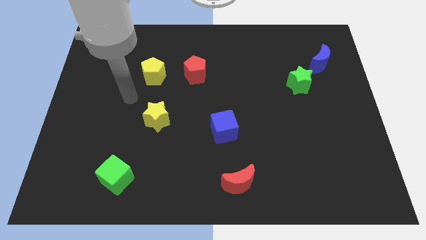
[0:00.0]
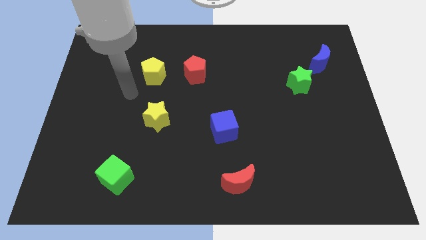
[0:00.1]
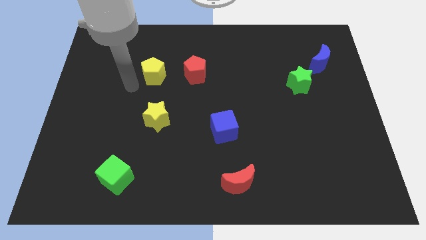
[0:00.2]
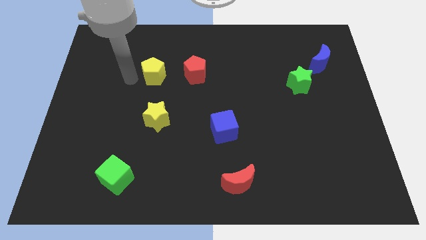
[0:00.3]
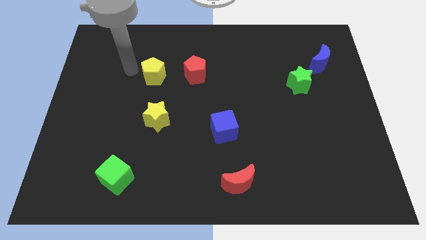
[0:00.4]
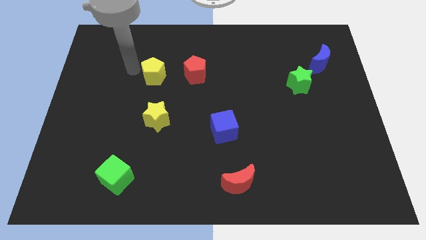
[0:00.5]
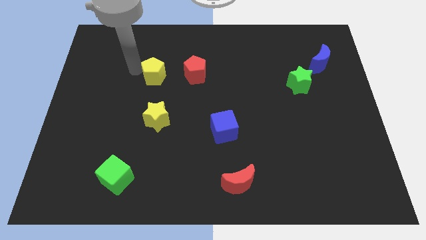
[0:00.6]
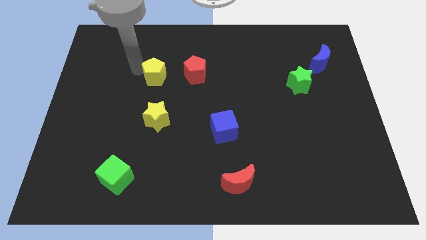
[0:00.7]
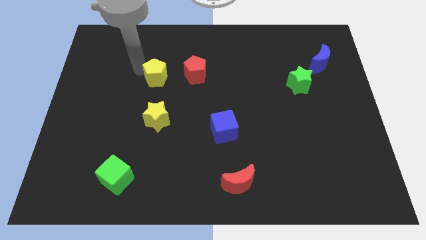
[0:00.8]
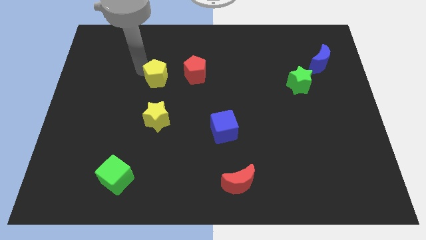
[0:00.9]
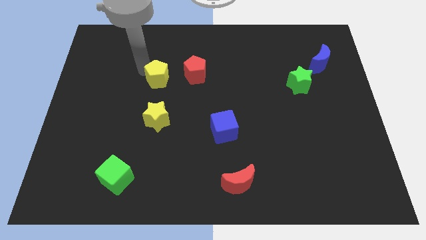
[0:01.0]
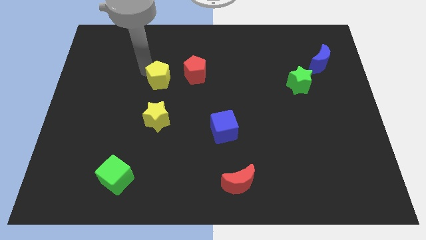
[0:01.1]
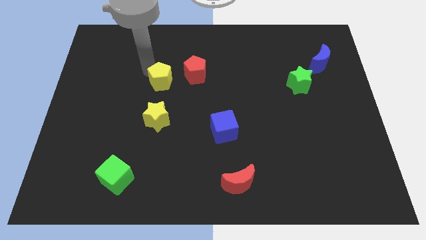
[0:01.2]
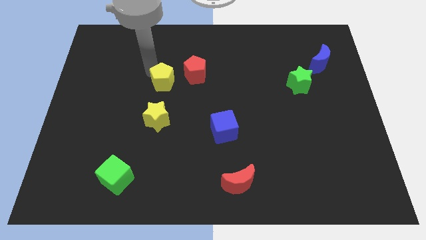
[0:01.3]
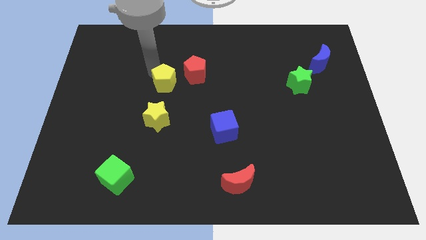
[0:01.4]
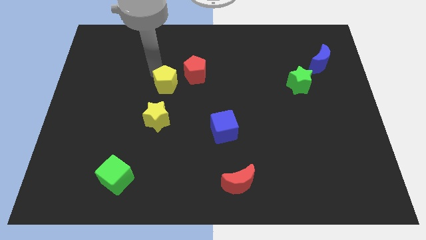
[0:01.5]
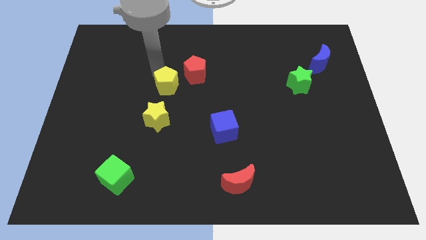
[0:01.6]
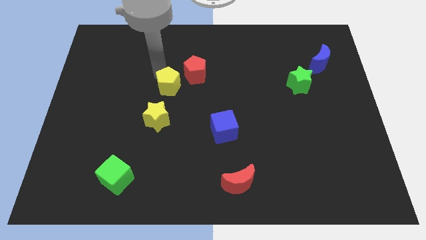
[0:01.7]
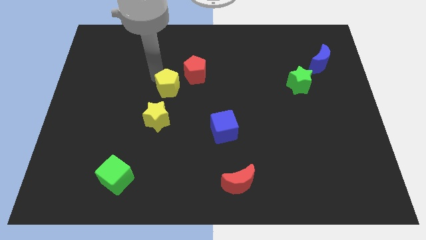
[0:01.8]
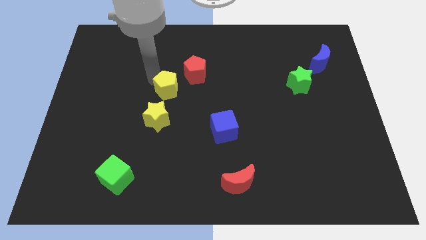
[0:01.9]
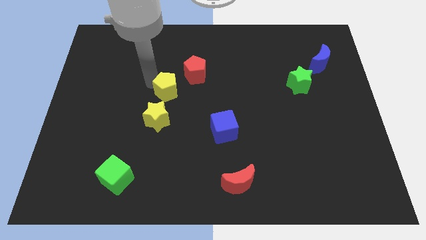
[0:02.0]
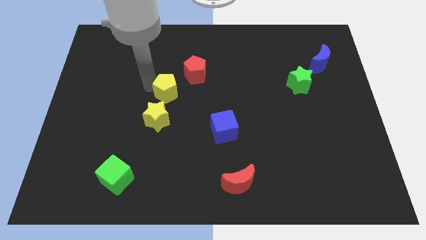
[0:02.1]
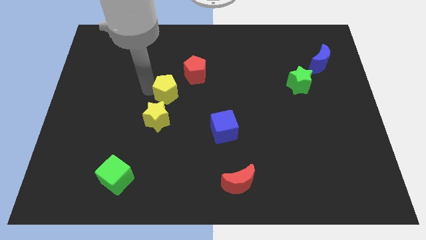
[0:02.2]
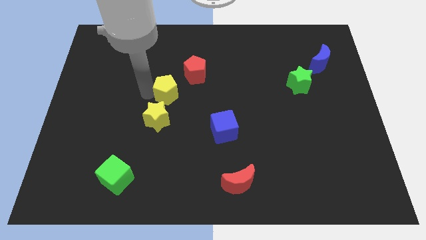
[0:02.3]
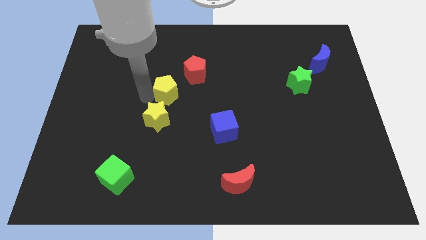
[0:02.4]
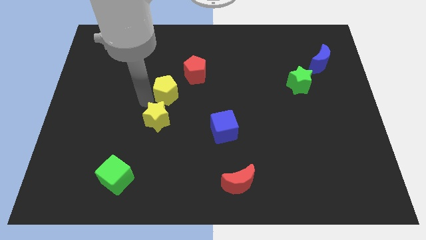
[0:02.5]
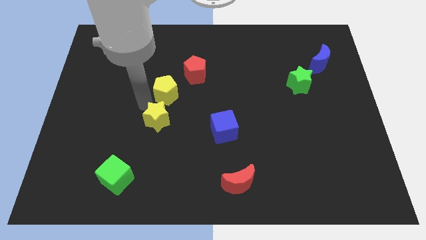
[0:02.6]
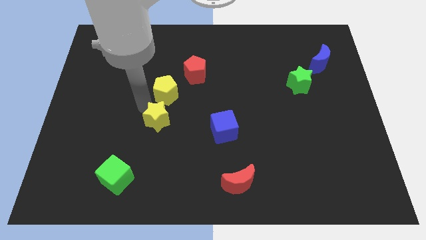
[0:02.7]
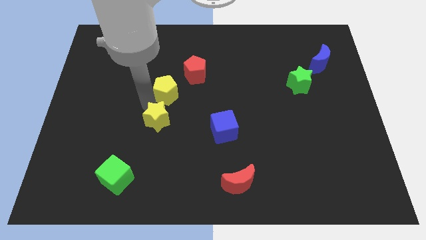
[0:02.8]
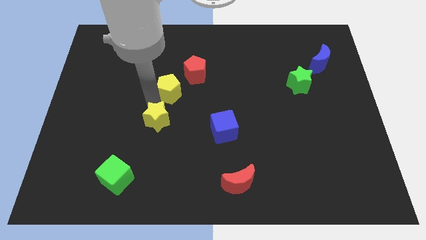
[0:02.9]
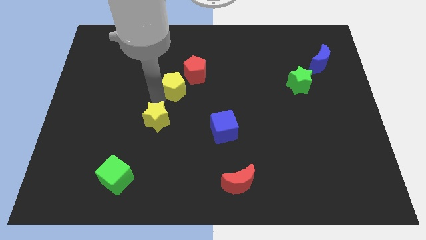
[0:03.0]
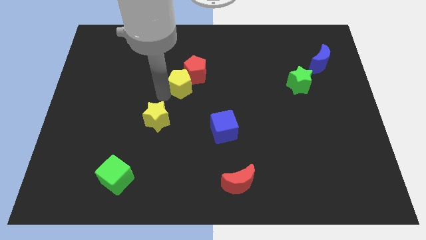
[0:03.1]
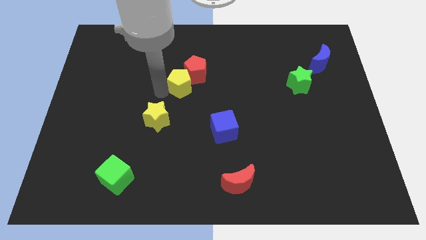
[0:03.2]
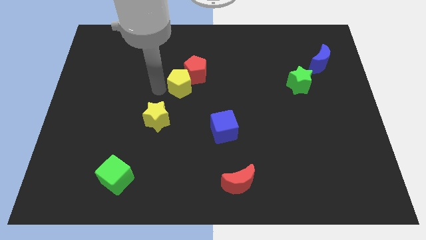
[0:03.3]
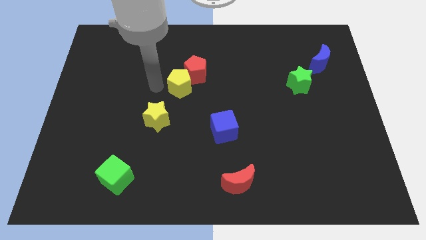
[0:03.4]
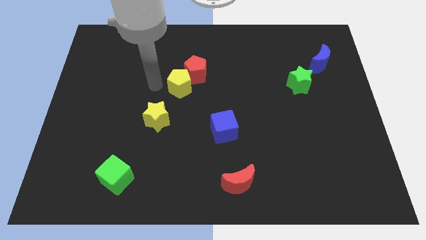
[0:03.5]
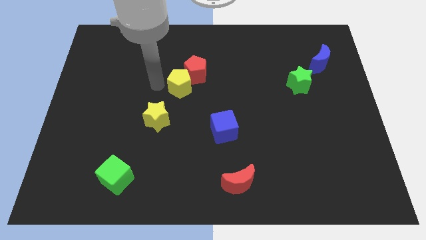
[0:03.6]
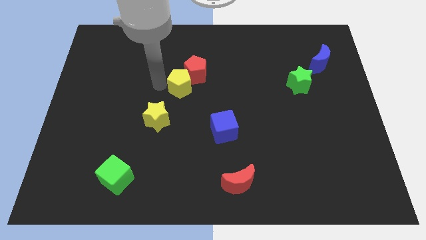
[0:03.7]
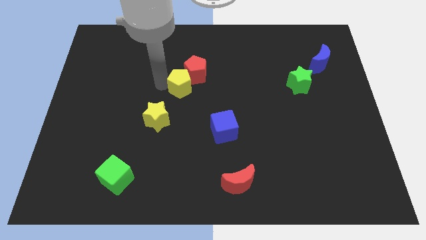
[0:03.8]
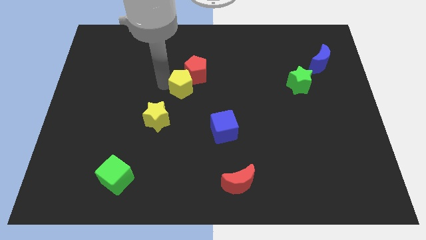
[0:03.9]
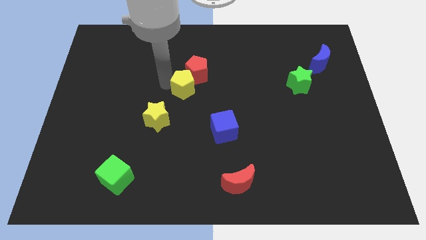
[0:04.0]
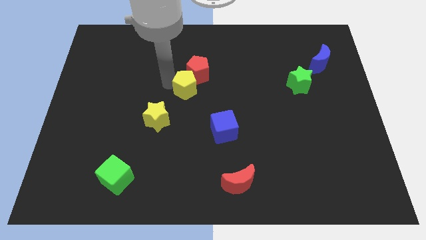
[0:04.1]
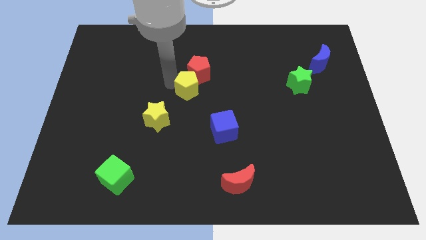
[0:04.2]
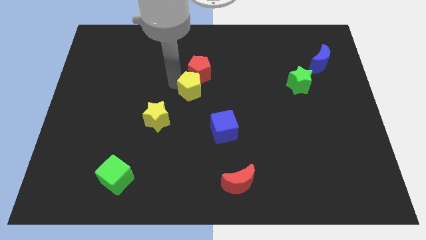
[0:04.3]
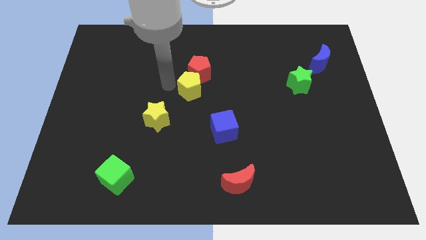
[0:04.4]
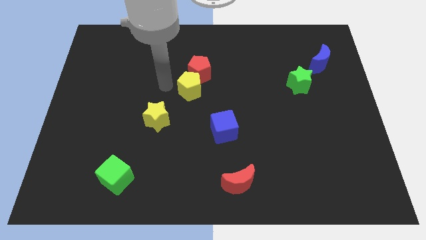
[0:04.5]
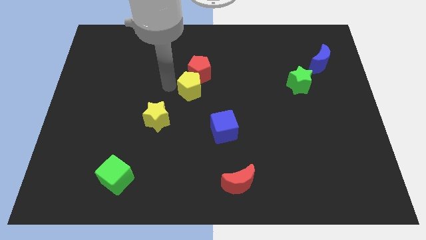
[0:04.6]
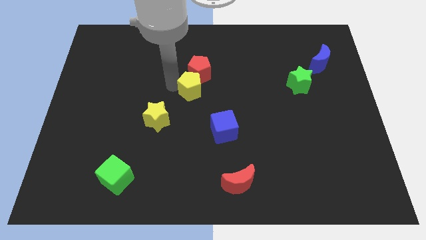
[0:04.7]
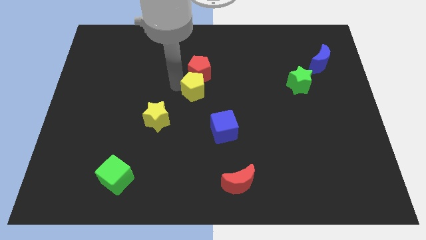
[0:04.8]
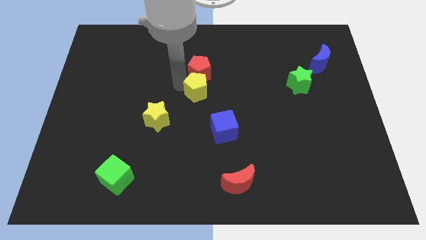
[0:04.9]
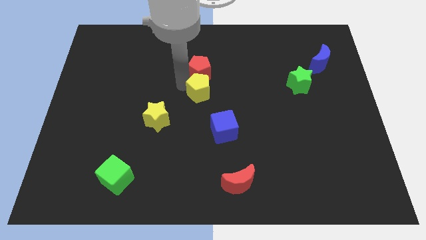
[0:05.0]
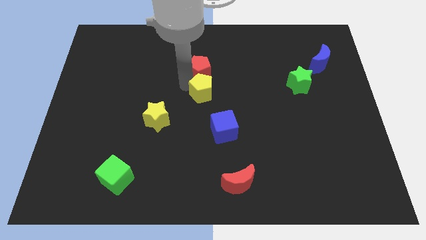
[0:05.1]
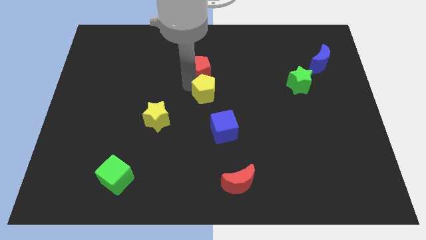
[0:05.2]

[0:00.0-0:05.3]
put the yellow pentagon above the blue cube
